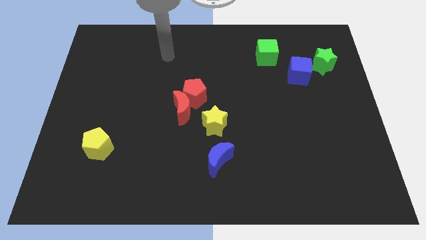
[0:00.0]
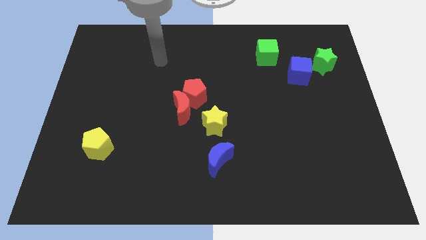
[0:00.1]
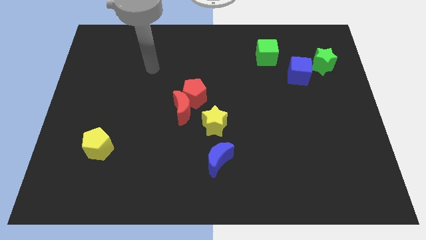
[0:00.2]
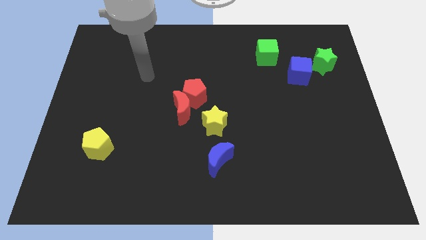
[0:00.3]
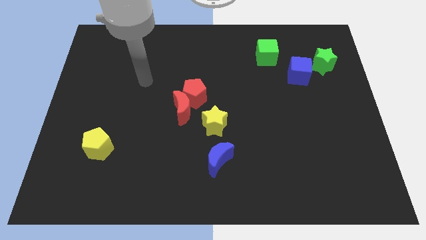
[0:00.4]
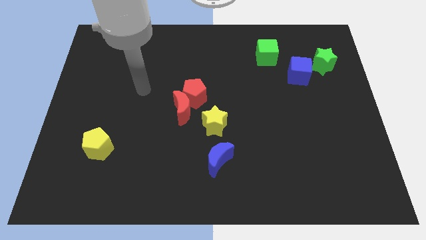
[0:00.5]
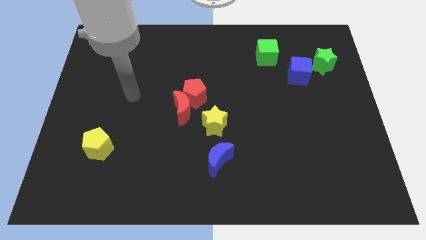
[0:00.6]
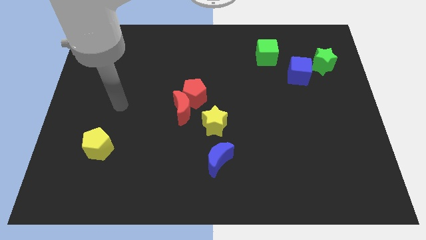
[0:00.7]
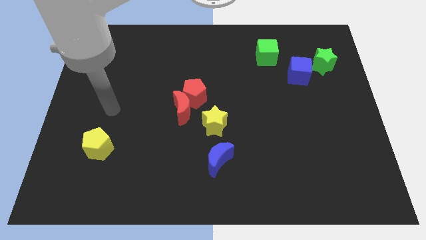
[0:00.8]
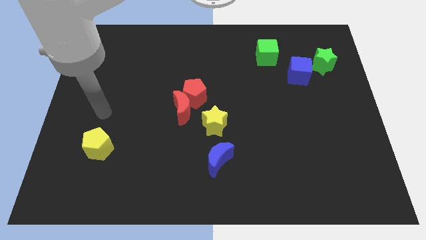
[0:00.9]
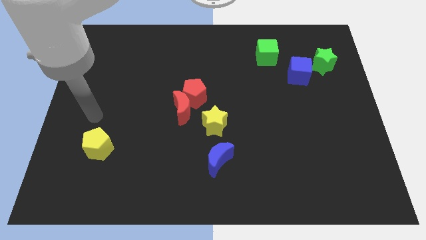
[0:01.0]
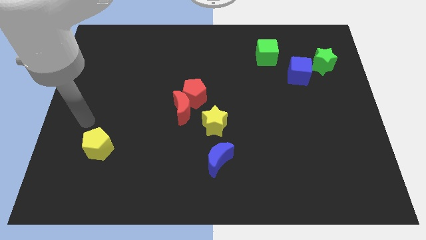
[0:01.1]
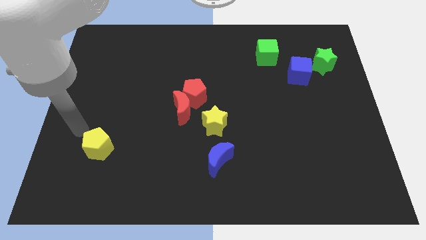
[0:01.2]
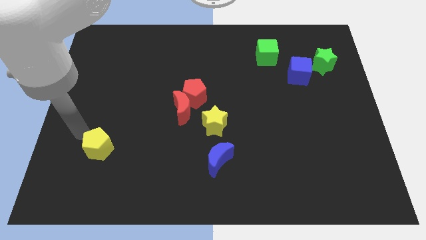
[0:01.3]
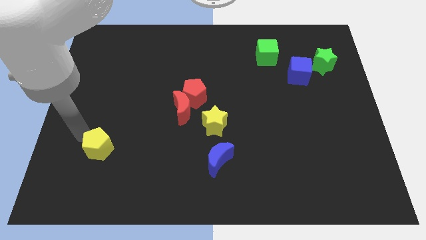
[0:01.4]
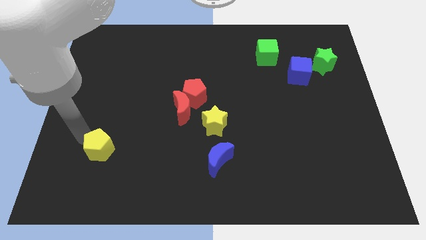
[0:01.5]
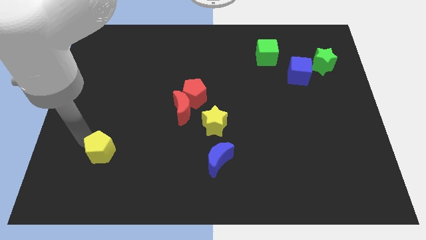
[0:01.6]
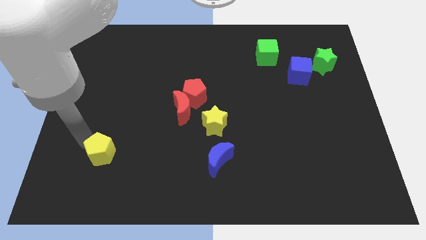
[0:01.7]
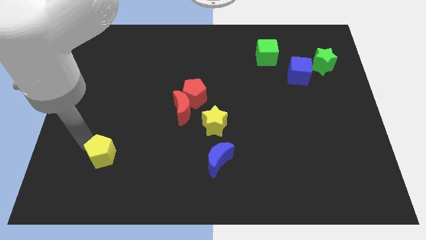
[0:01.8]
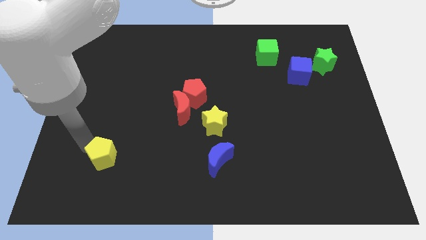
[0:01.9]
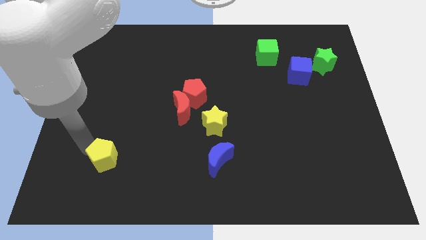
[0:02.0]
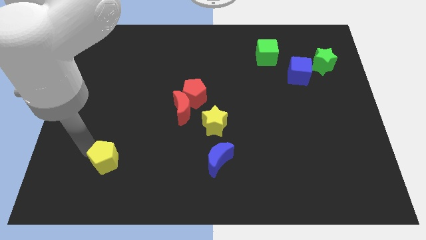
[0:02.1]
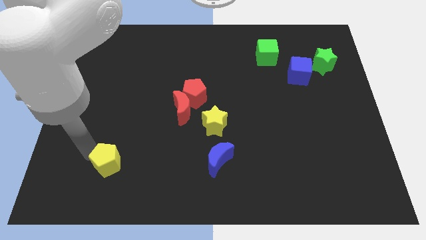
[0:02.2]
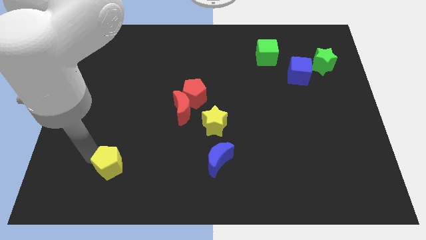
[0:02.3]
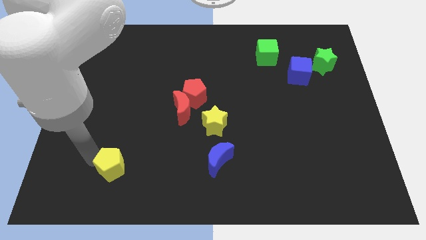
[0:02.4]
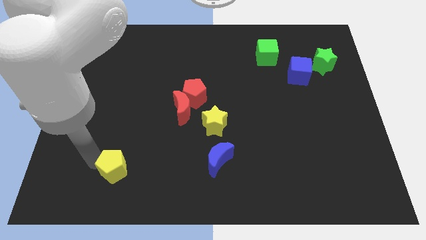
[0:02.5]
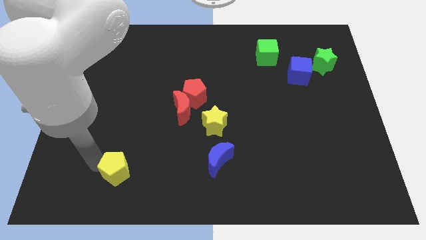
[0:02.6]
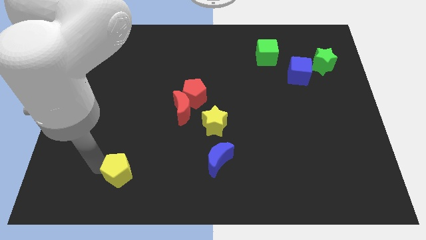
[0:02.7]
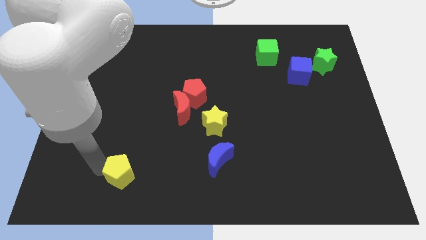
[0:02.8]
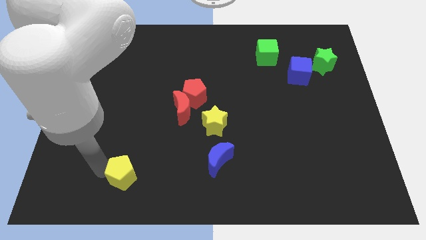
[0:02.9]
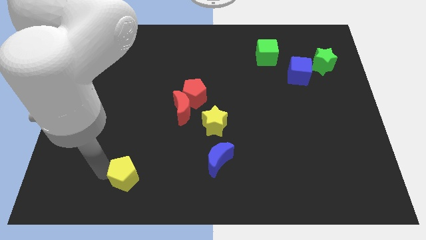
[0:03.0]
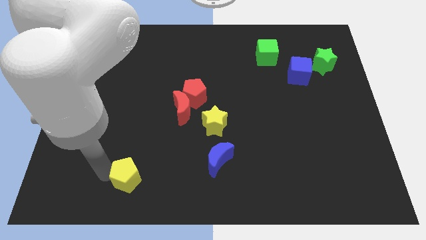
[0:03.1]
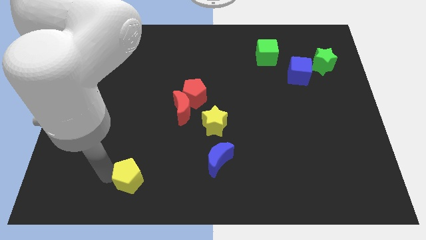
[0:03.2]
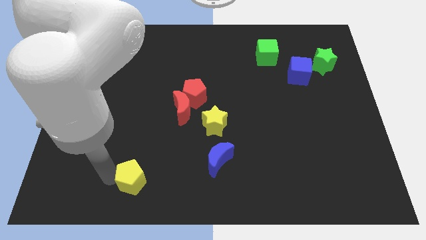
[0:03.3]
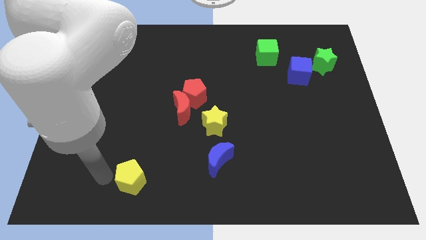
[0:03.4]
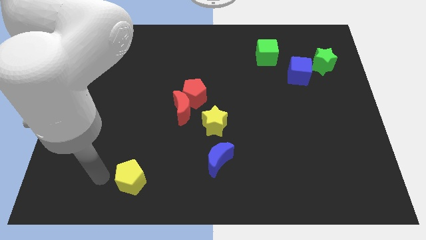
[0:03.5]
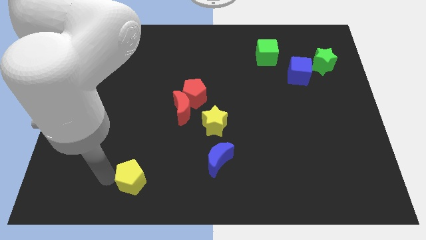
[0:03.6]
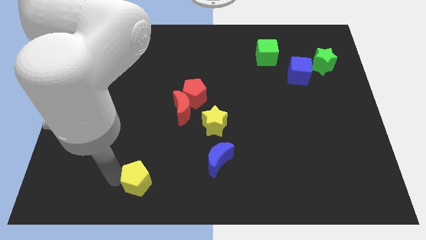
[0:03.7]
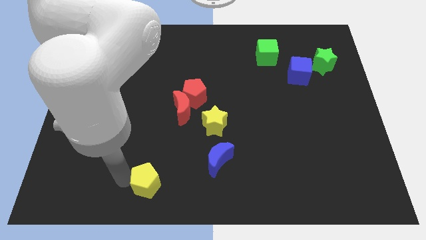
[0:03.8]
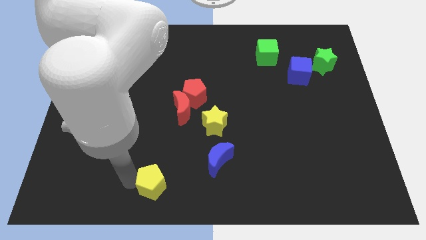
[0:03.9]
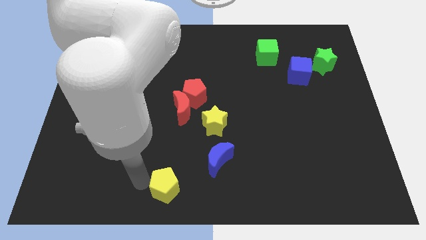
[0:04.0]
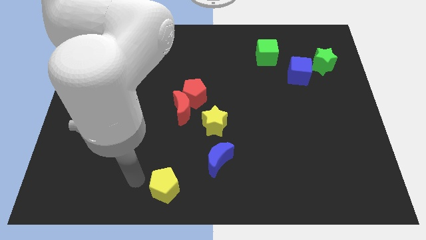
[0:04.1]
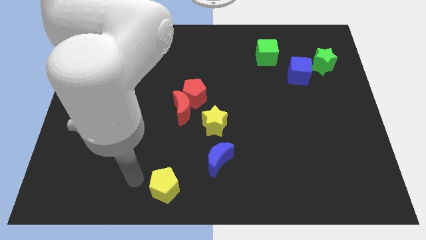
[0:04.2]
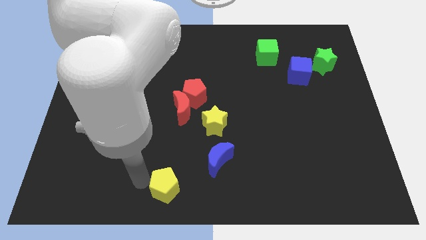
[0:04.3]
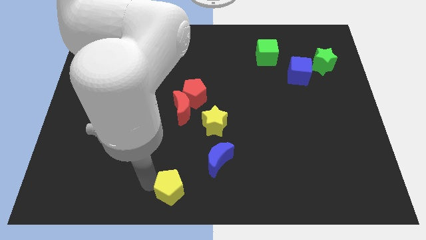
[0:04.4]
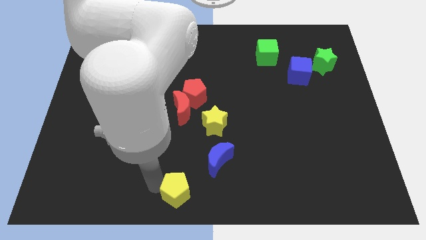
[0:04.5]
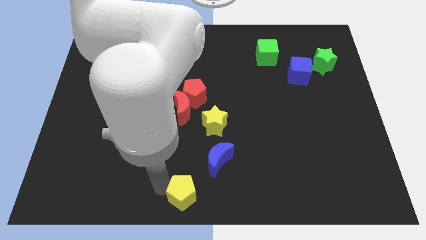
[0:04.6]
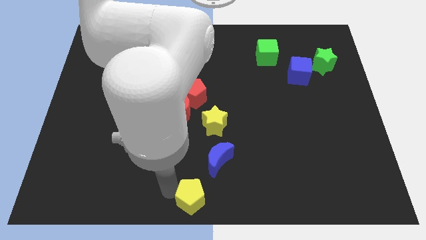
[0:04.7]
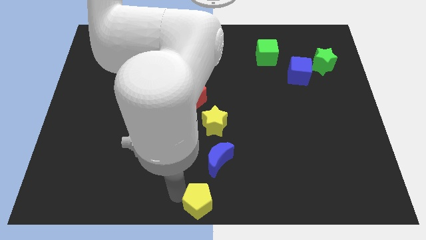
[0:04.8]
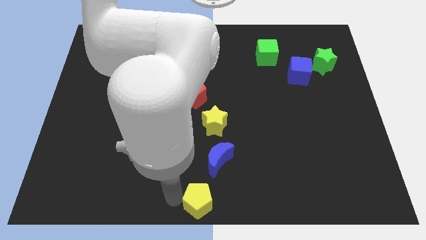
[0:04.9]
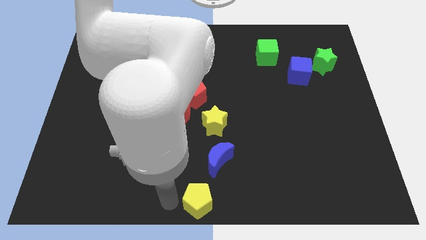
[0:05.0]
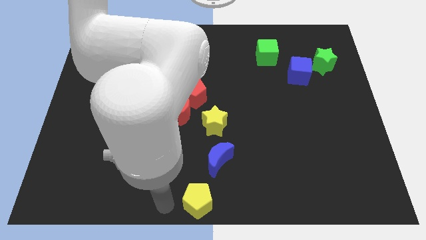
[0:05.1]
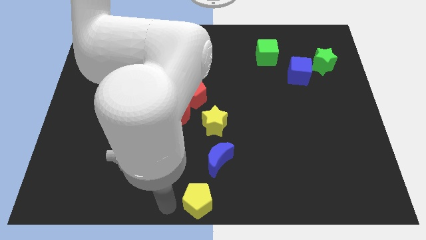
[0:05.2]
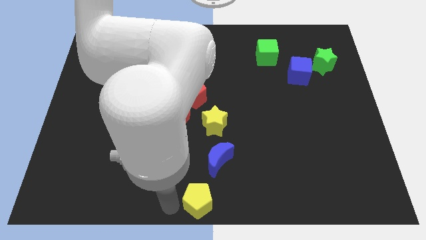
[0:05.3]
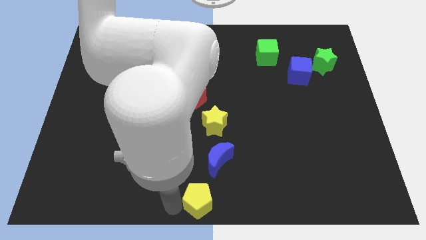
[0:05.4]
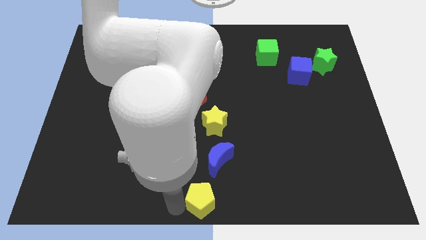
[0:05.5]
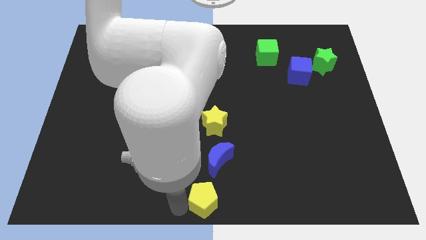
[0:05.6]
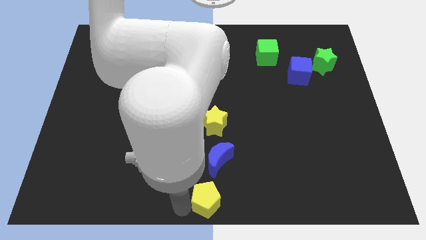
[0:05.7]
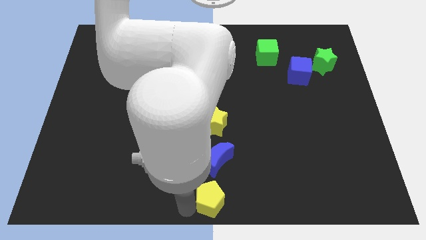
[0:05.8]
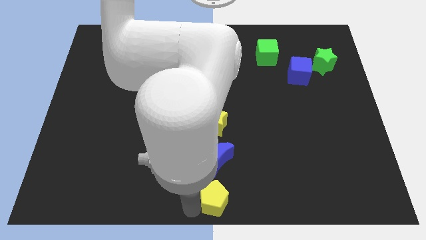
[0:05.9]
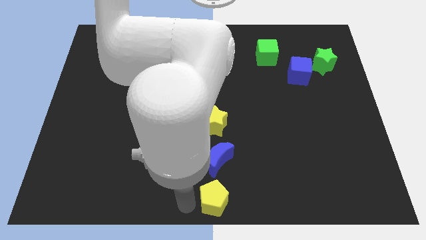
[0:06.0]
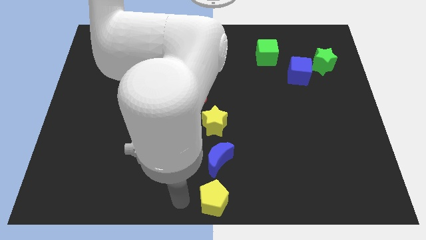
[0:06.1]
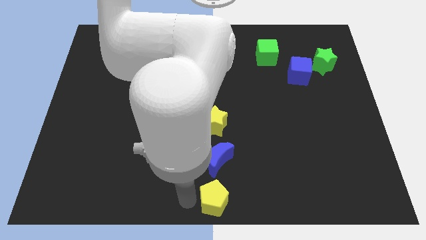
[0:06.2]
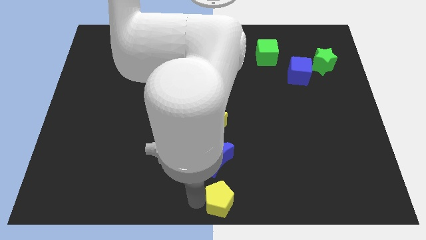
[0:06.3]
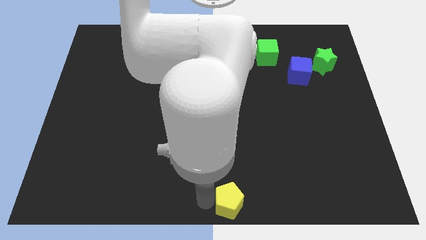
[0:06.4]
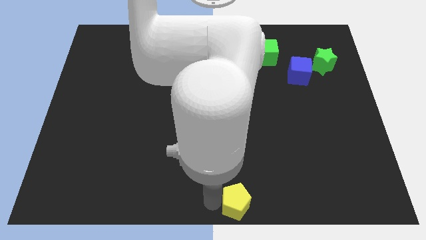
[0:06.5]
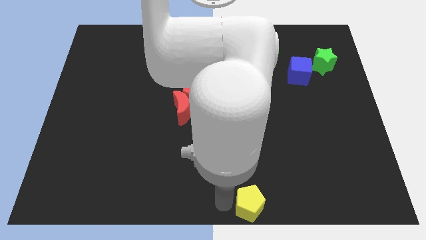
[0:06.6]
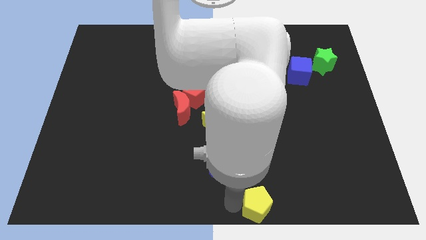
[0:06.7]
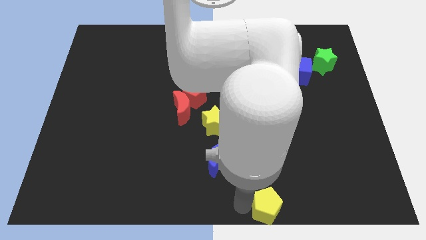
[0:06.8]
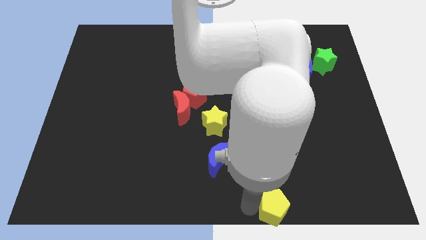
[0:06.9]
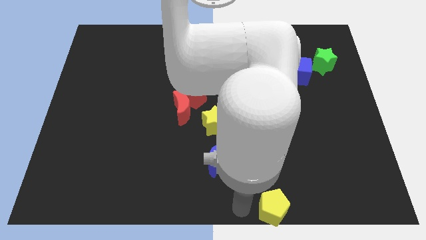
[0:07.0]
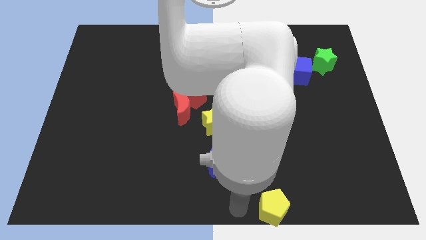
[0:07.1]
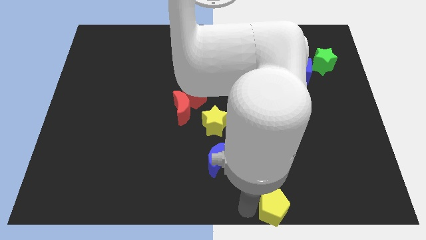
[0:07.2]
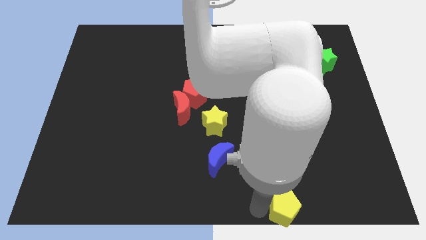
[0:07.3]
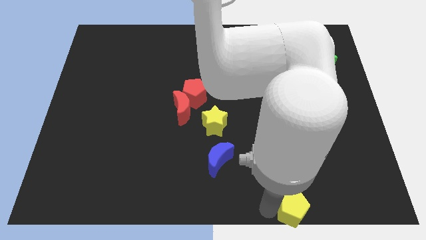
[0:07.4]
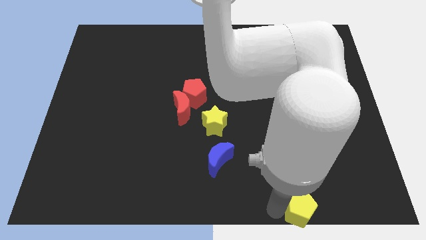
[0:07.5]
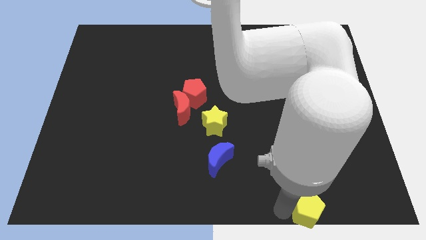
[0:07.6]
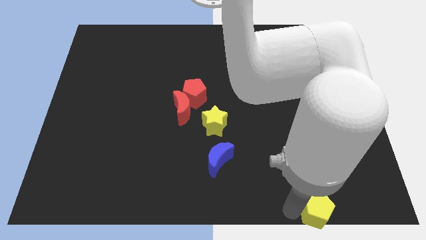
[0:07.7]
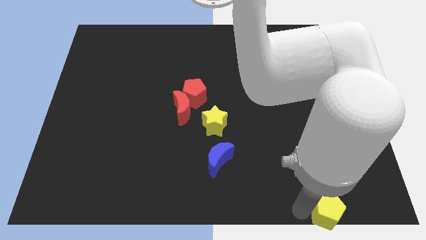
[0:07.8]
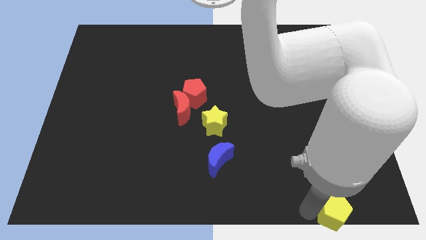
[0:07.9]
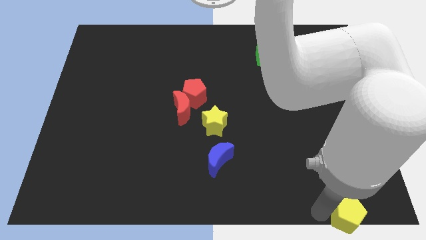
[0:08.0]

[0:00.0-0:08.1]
move the yellow pentagon to the lower right corner
